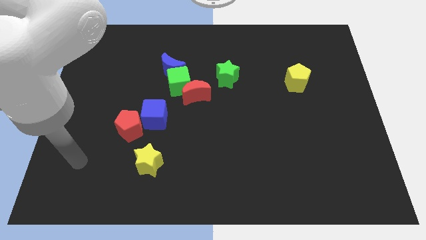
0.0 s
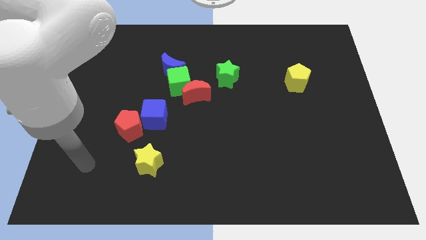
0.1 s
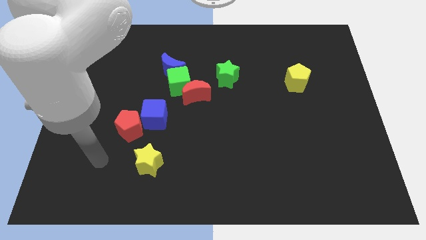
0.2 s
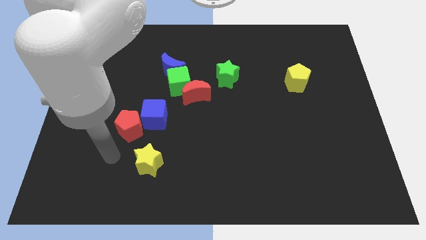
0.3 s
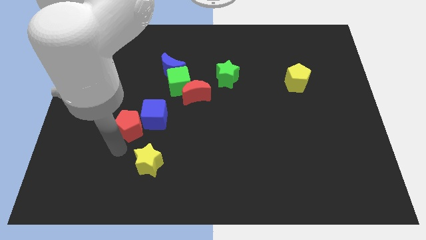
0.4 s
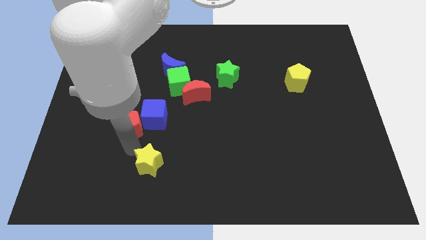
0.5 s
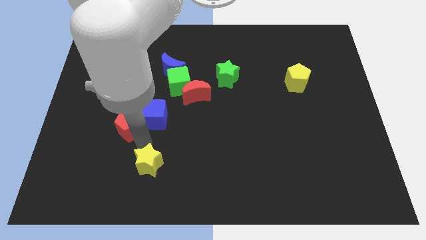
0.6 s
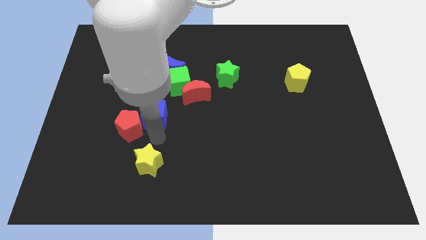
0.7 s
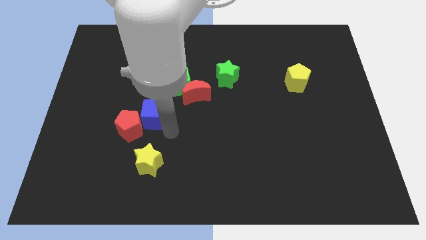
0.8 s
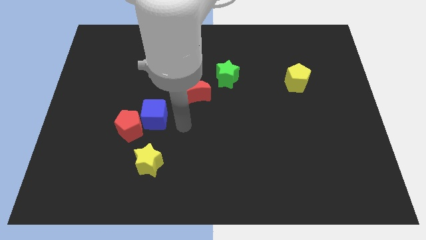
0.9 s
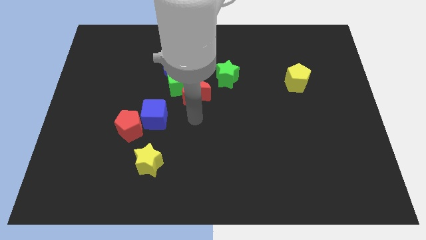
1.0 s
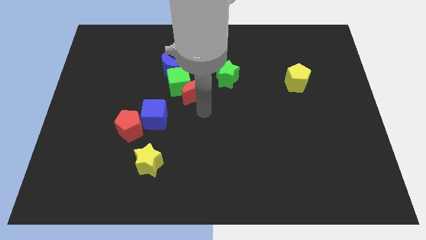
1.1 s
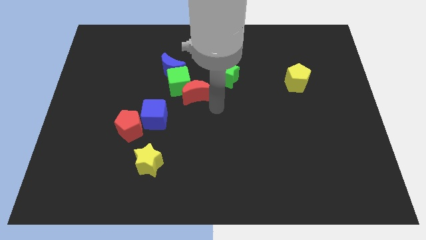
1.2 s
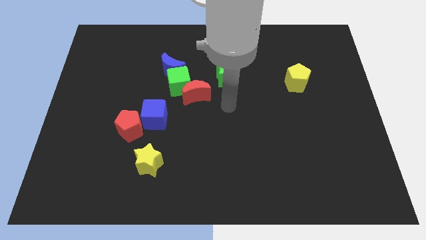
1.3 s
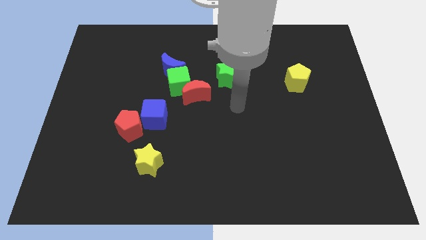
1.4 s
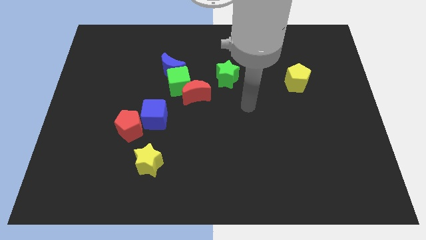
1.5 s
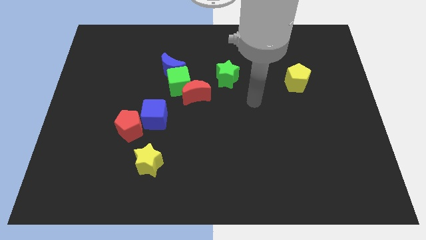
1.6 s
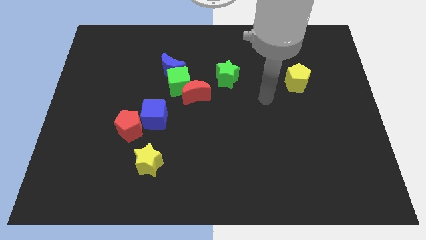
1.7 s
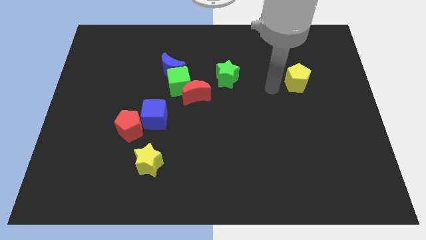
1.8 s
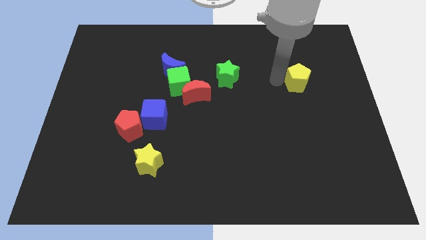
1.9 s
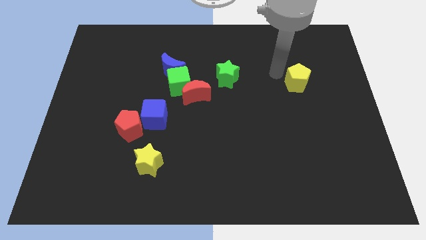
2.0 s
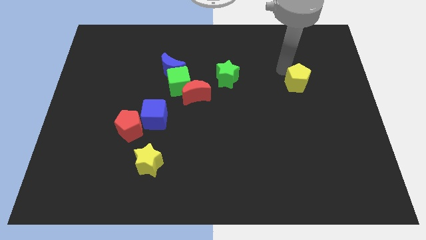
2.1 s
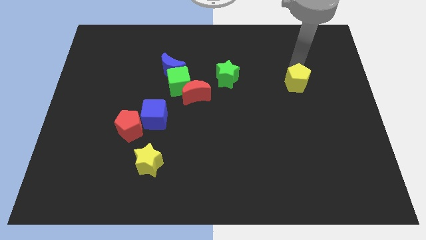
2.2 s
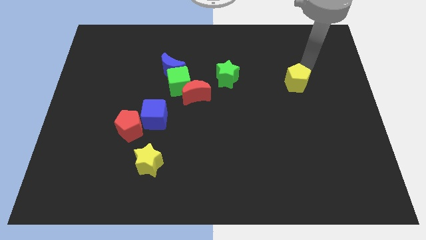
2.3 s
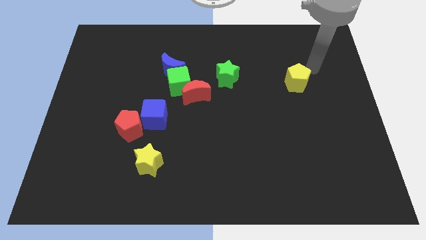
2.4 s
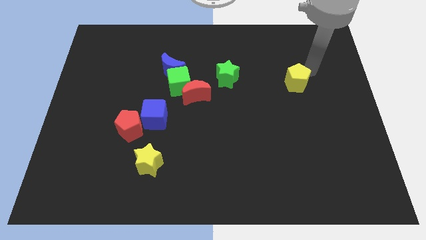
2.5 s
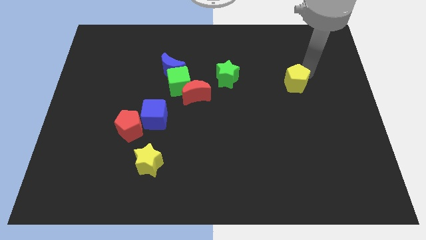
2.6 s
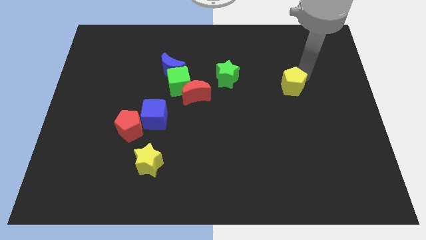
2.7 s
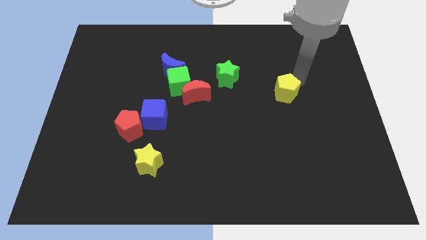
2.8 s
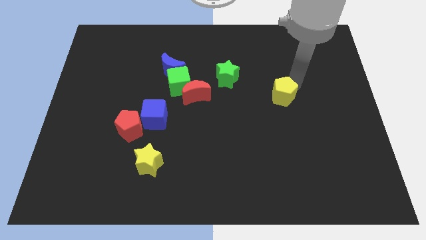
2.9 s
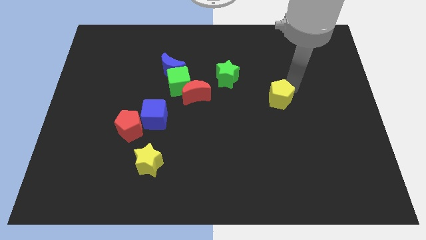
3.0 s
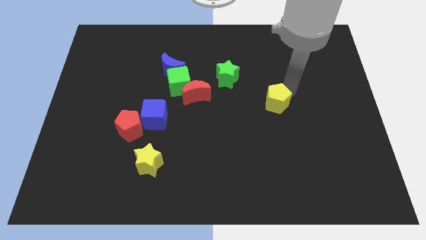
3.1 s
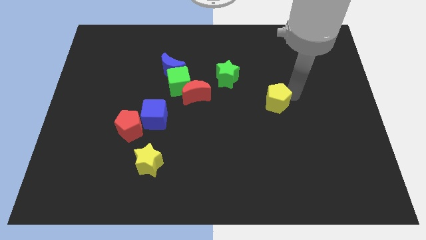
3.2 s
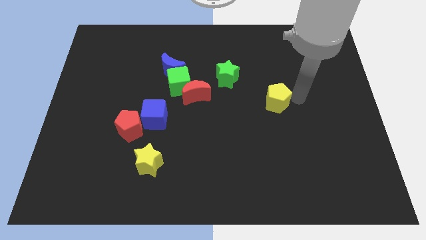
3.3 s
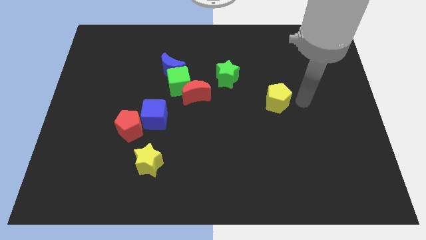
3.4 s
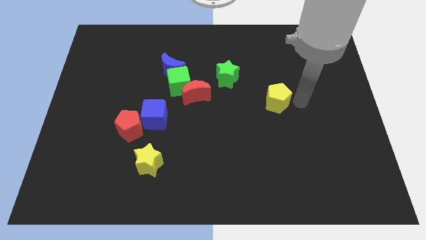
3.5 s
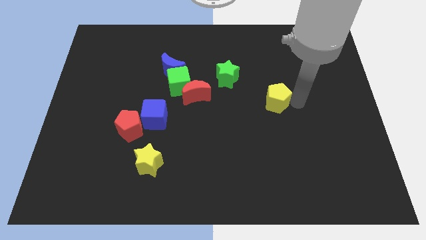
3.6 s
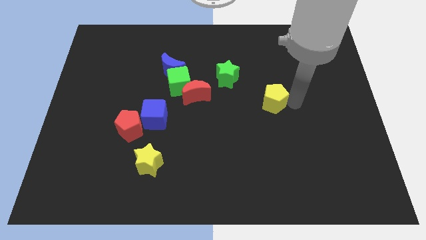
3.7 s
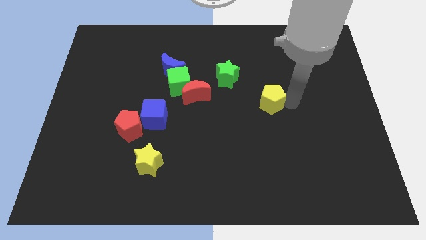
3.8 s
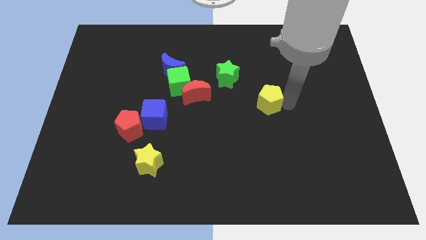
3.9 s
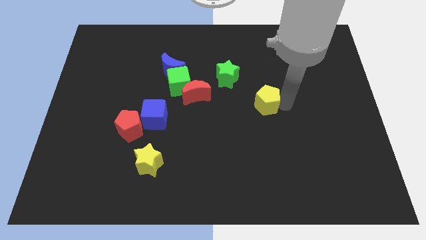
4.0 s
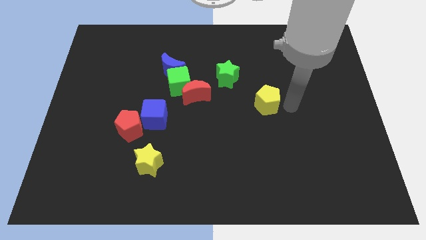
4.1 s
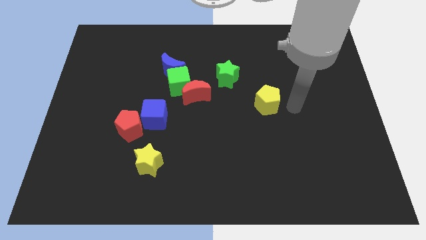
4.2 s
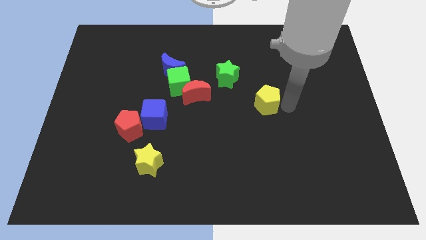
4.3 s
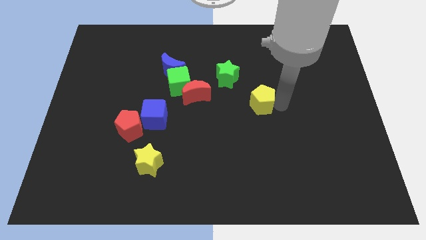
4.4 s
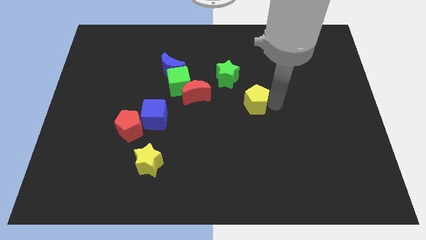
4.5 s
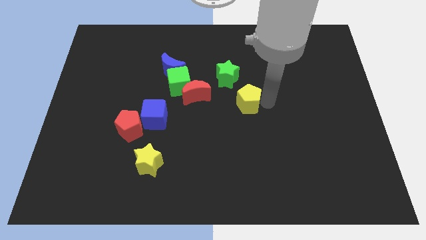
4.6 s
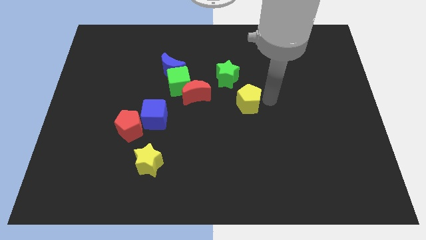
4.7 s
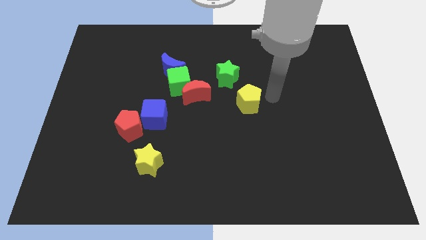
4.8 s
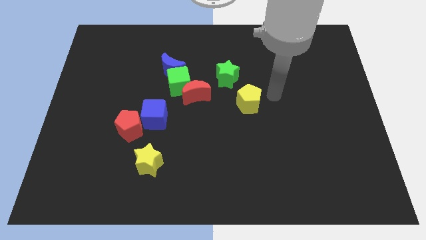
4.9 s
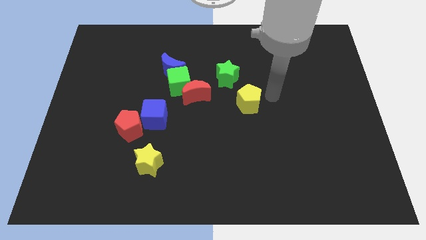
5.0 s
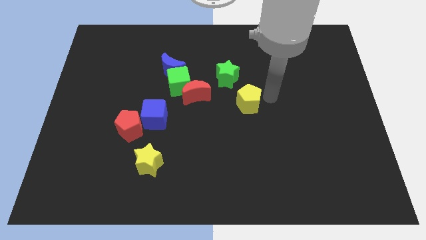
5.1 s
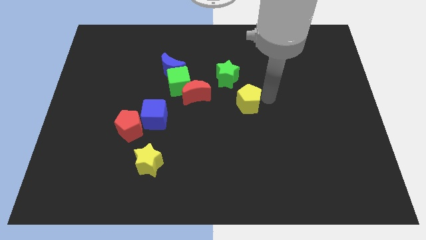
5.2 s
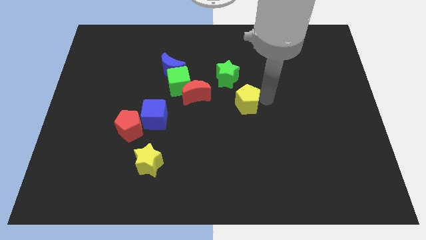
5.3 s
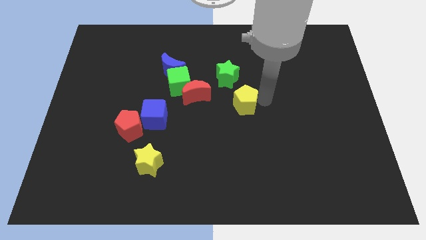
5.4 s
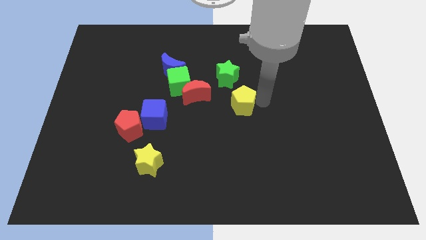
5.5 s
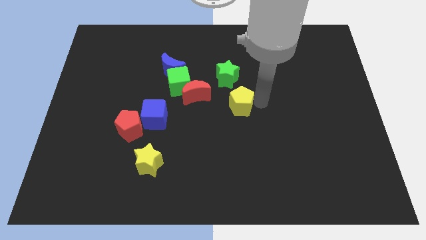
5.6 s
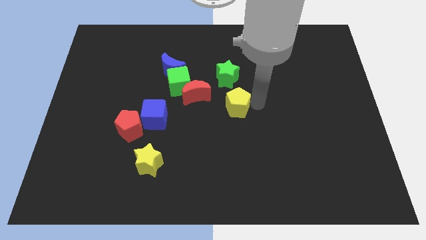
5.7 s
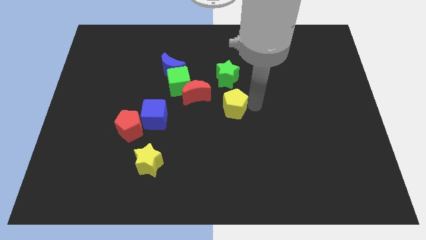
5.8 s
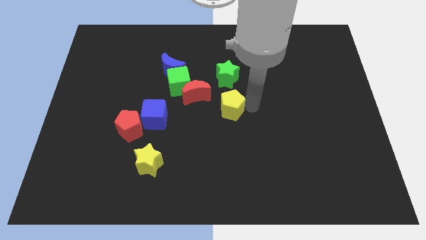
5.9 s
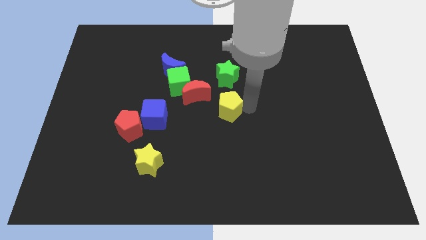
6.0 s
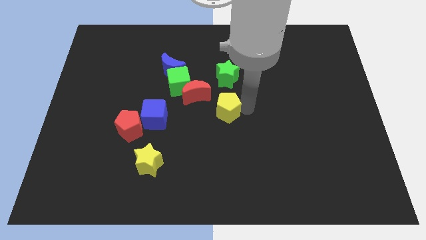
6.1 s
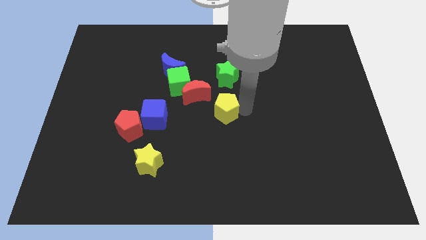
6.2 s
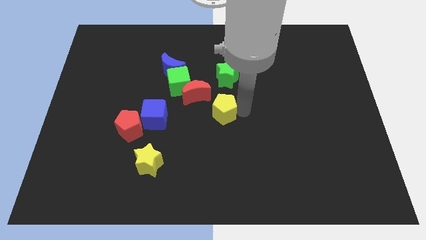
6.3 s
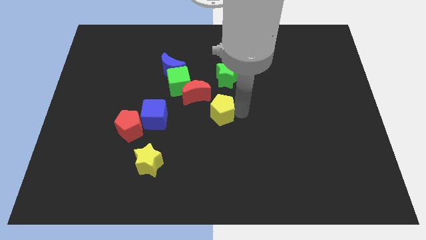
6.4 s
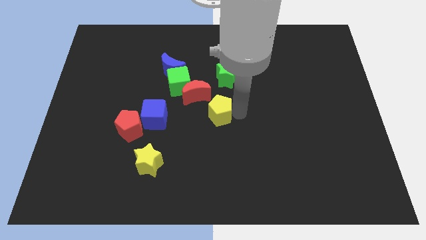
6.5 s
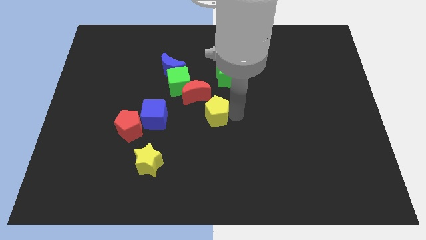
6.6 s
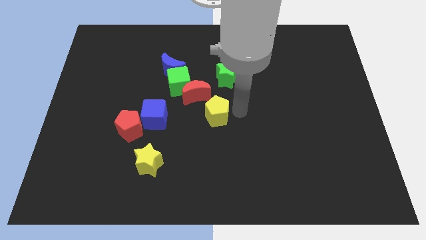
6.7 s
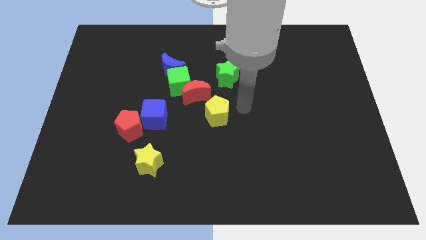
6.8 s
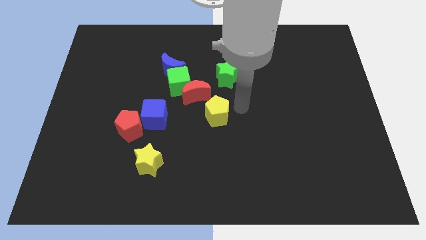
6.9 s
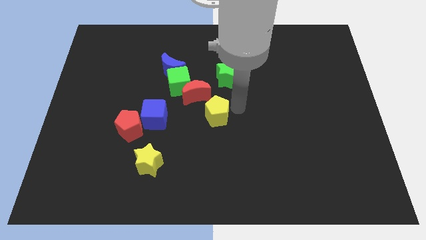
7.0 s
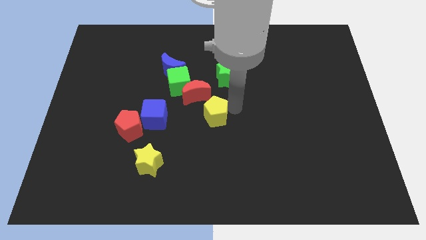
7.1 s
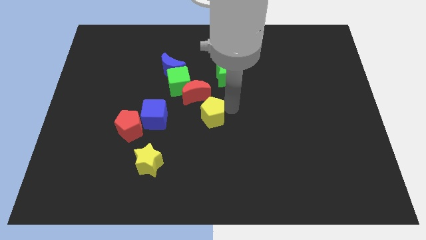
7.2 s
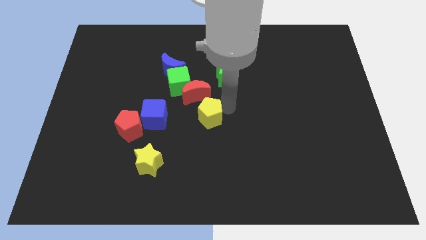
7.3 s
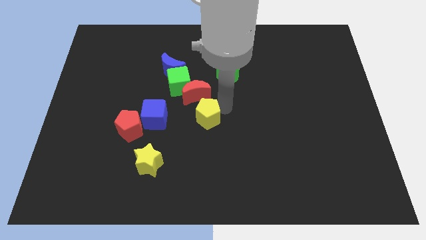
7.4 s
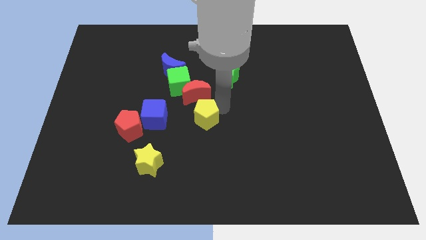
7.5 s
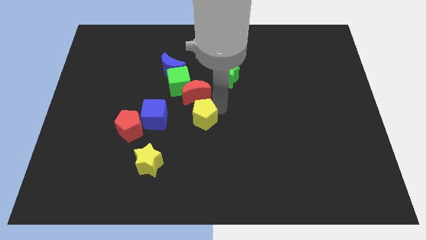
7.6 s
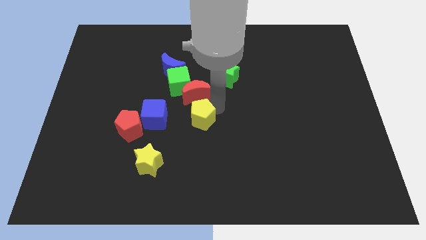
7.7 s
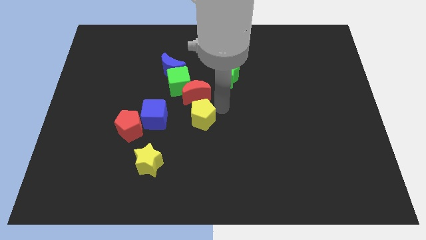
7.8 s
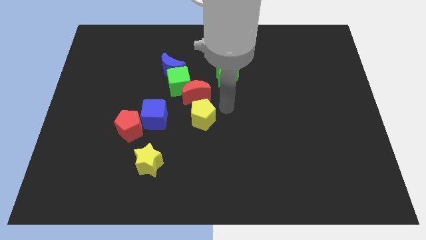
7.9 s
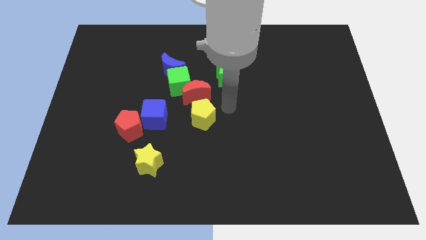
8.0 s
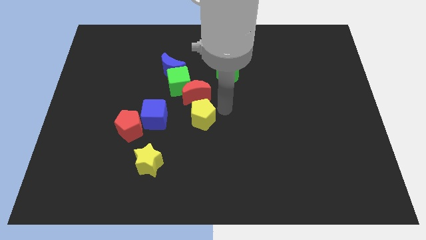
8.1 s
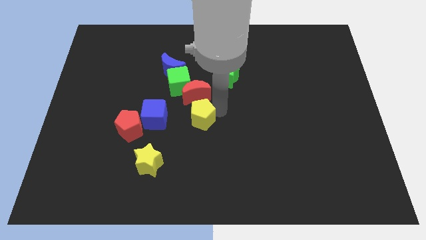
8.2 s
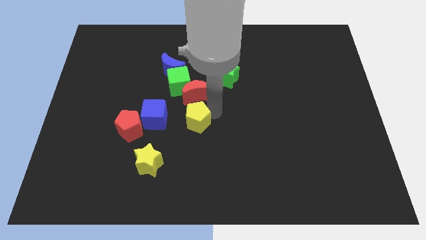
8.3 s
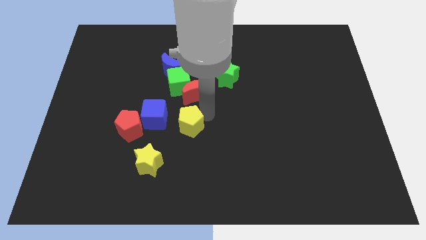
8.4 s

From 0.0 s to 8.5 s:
slide the yellow pentagon diagonally down and to the right of the blue cube
